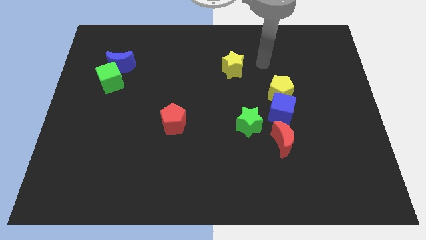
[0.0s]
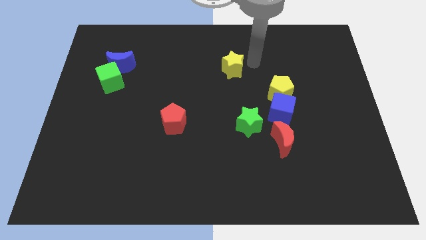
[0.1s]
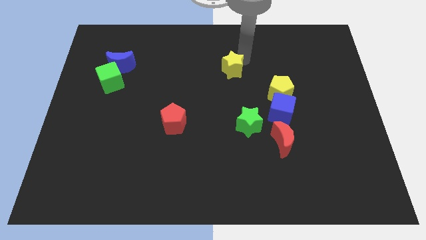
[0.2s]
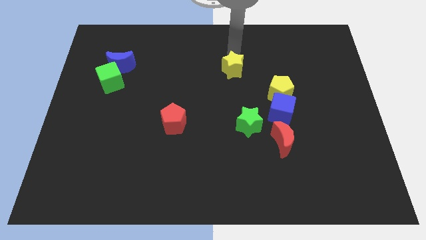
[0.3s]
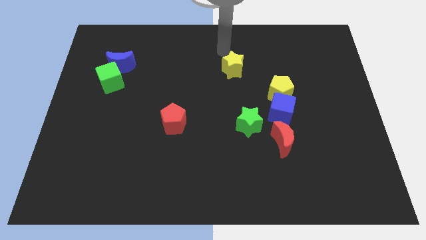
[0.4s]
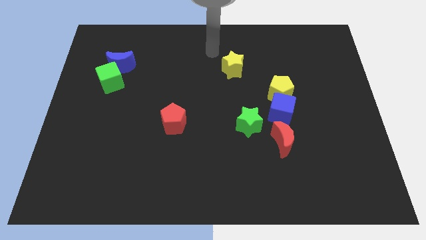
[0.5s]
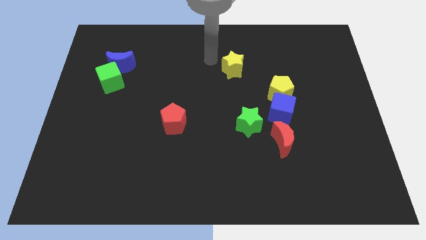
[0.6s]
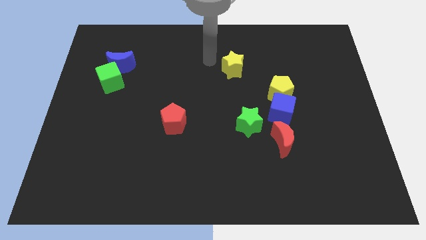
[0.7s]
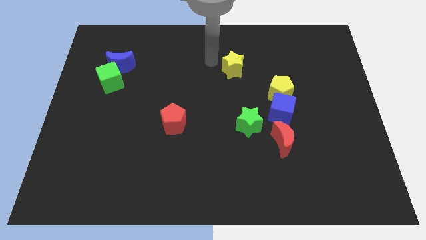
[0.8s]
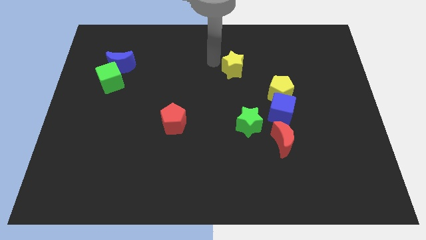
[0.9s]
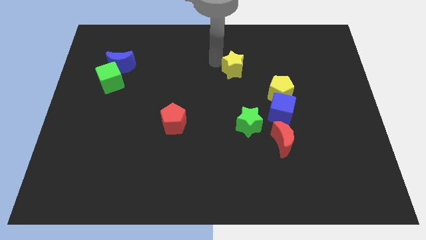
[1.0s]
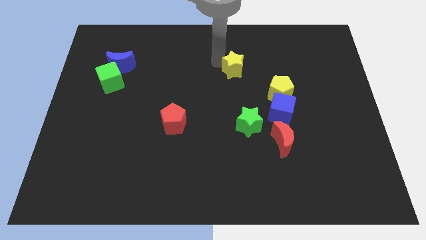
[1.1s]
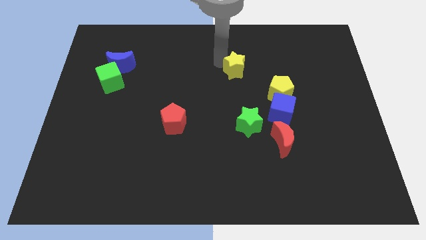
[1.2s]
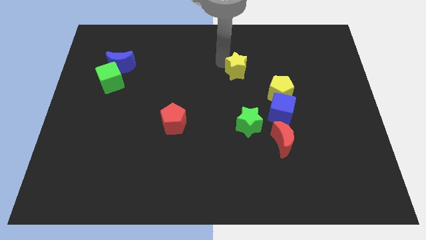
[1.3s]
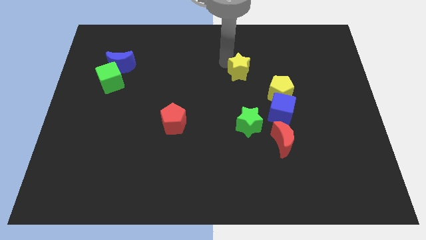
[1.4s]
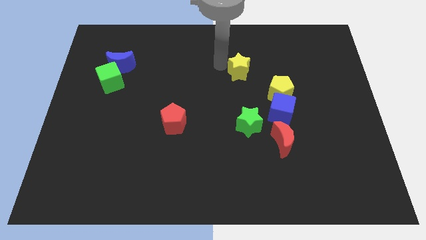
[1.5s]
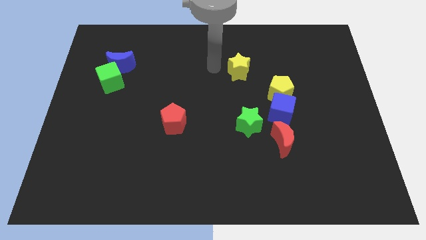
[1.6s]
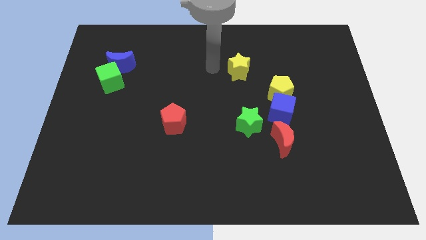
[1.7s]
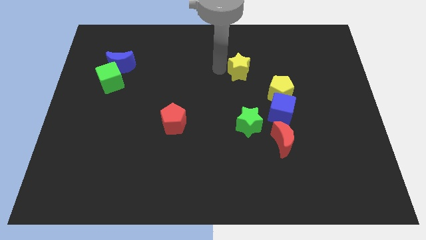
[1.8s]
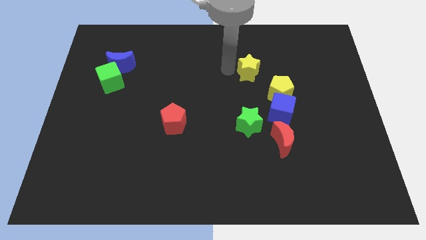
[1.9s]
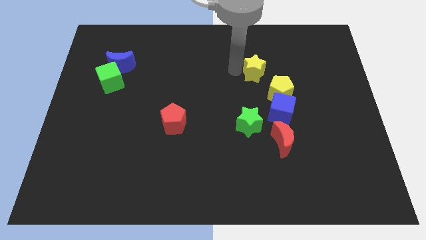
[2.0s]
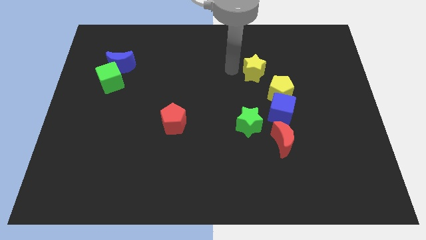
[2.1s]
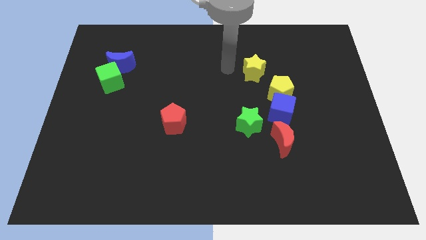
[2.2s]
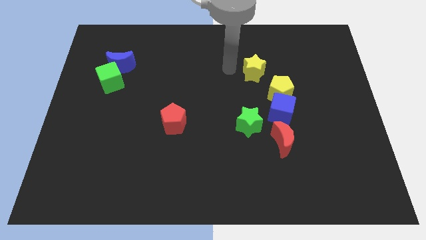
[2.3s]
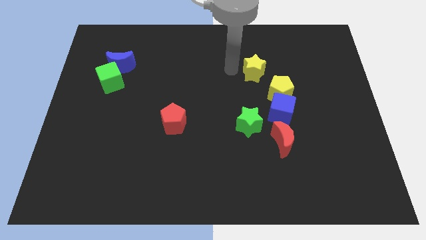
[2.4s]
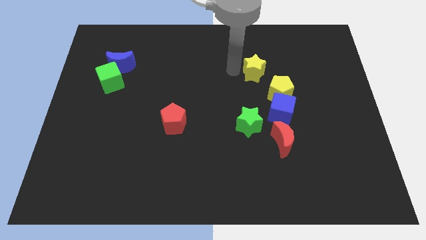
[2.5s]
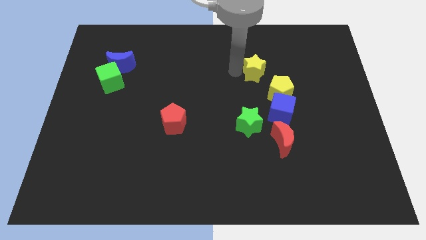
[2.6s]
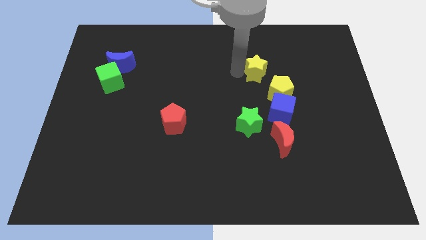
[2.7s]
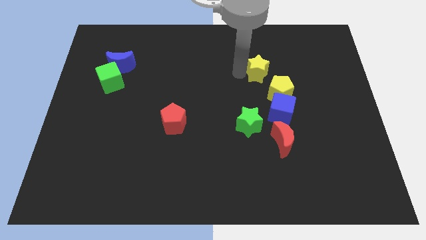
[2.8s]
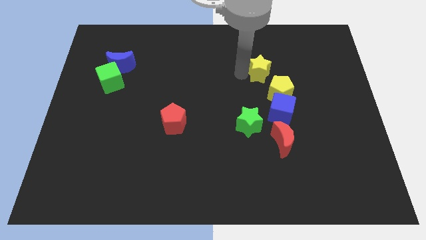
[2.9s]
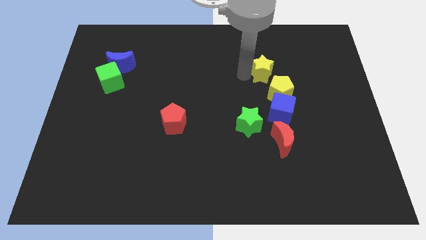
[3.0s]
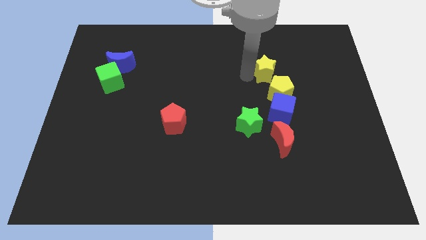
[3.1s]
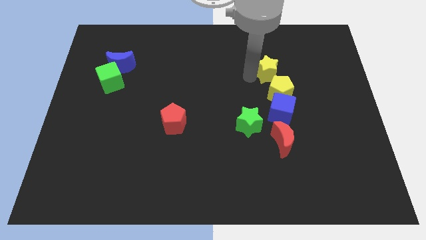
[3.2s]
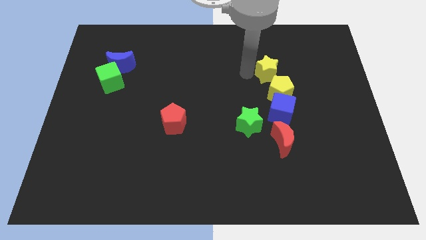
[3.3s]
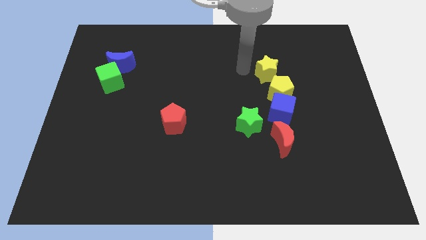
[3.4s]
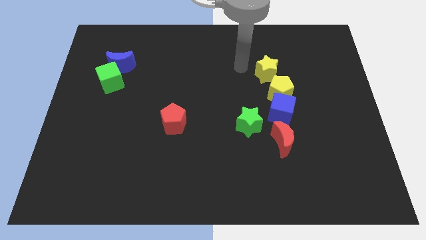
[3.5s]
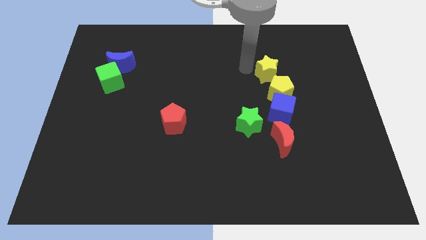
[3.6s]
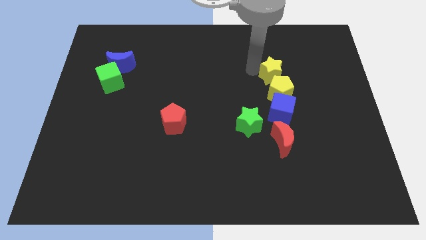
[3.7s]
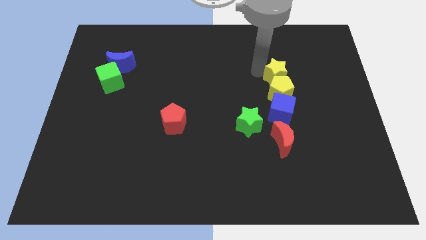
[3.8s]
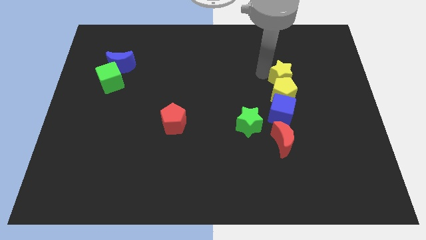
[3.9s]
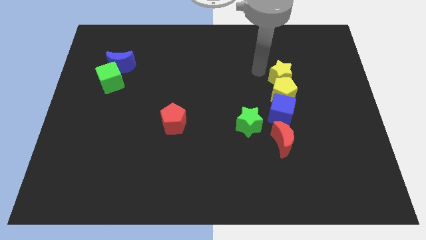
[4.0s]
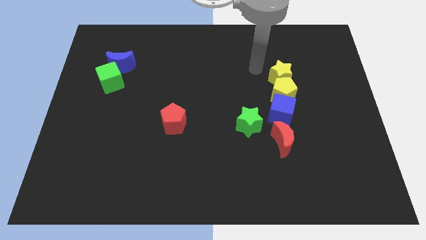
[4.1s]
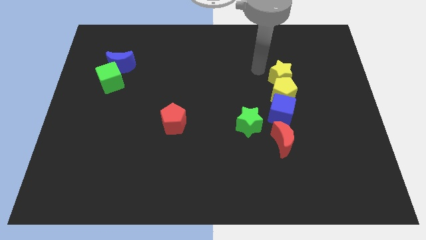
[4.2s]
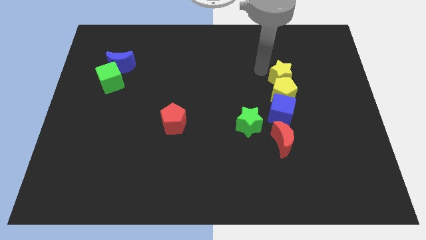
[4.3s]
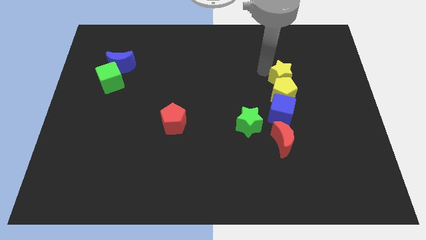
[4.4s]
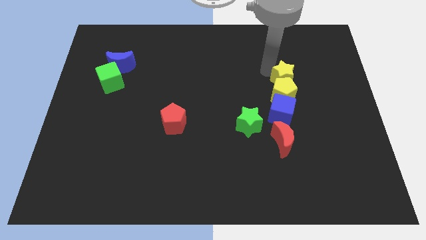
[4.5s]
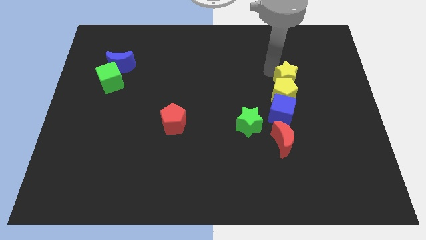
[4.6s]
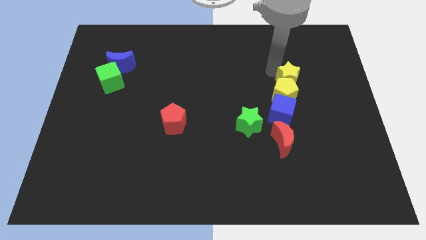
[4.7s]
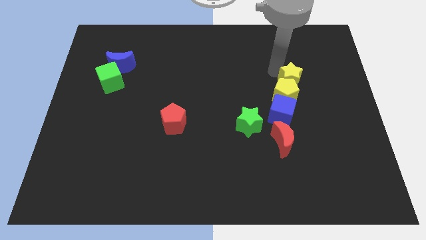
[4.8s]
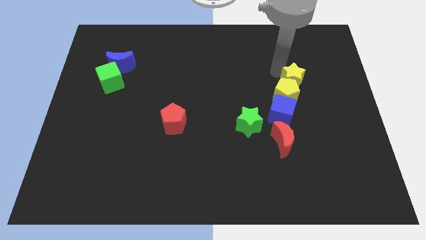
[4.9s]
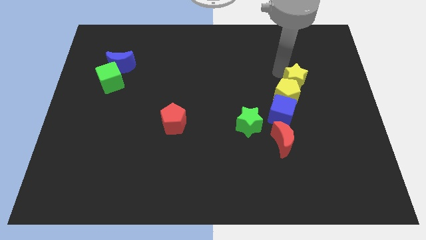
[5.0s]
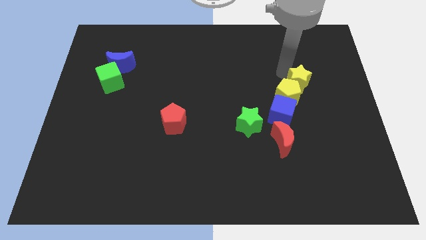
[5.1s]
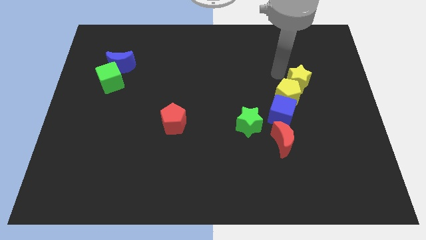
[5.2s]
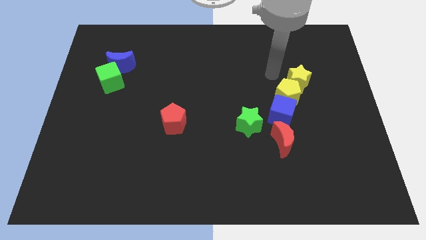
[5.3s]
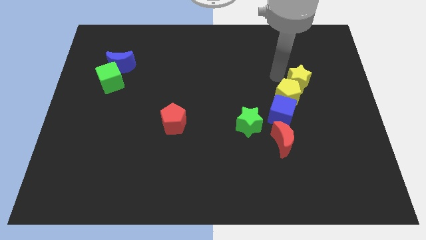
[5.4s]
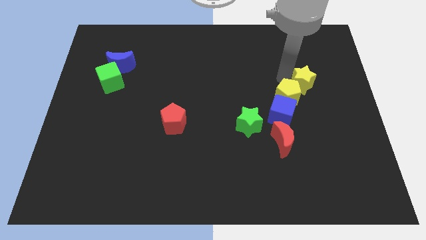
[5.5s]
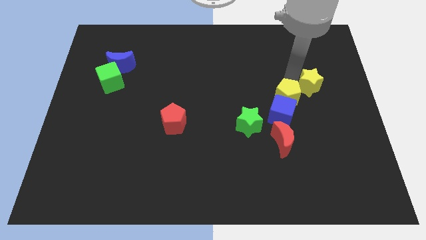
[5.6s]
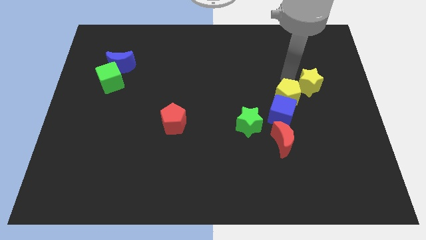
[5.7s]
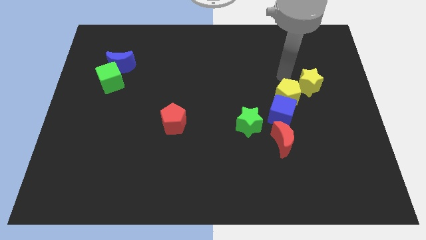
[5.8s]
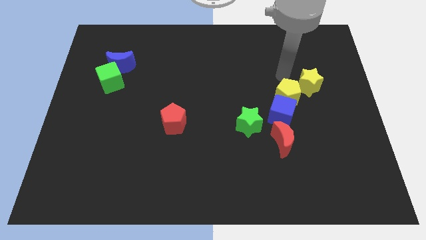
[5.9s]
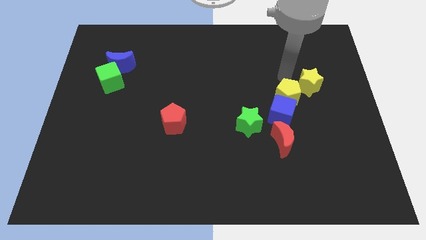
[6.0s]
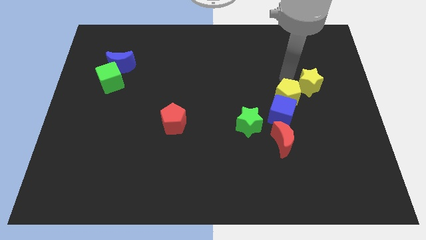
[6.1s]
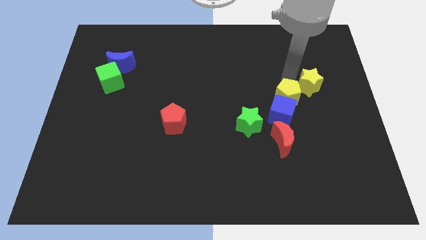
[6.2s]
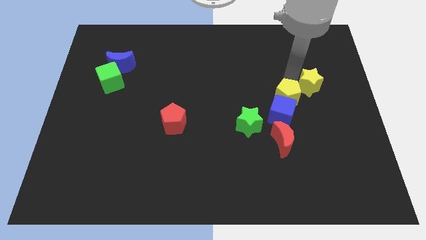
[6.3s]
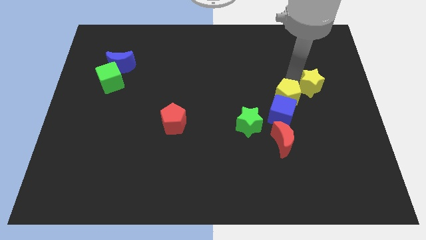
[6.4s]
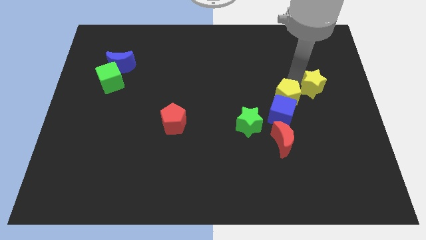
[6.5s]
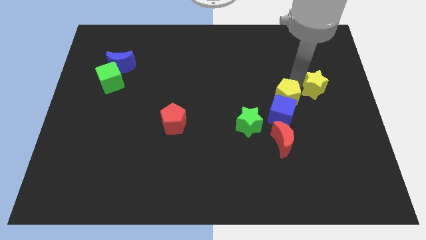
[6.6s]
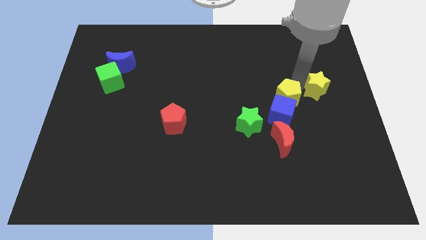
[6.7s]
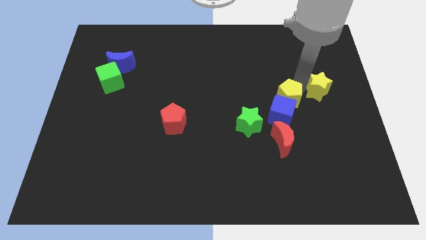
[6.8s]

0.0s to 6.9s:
put the yellow star to the center right
